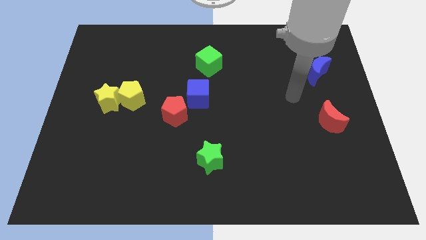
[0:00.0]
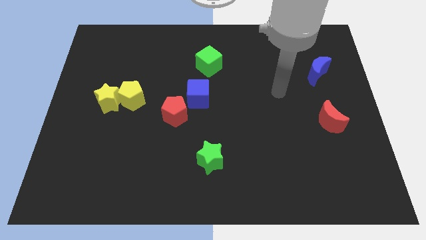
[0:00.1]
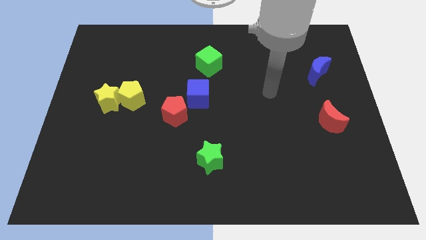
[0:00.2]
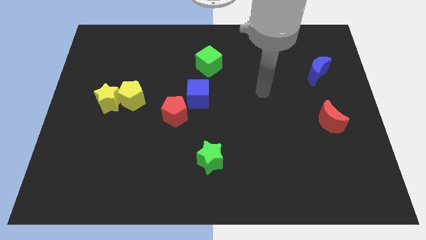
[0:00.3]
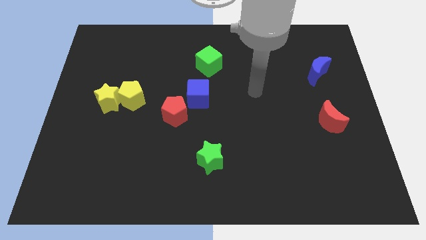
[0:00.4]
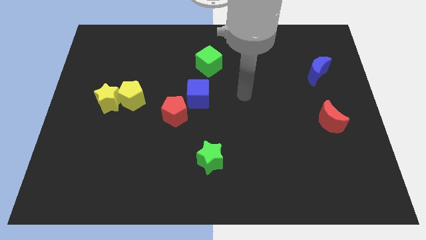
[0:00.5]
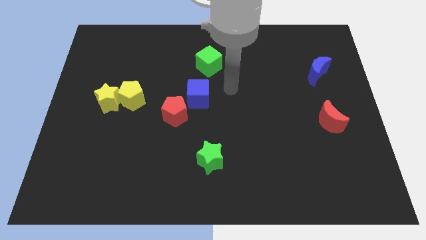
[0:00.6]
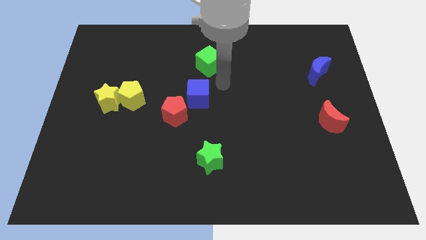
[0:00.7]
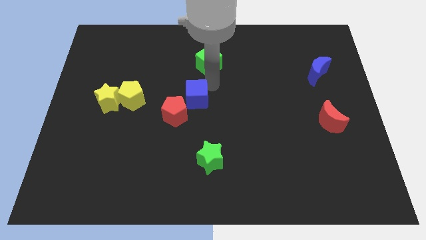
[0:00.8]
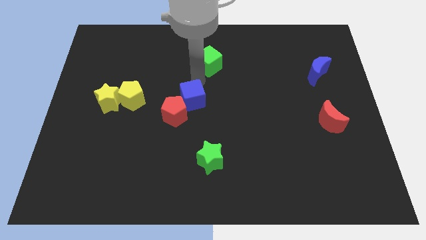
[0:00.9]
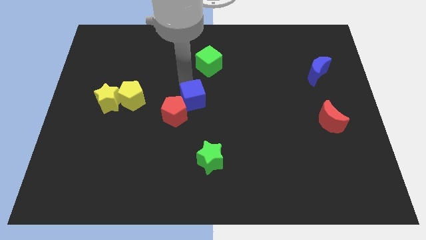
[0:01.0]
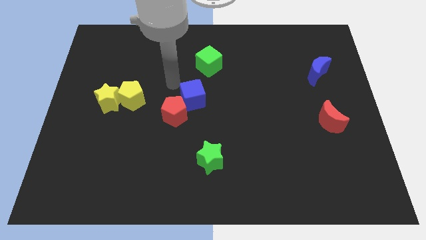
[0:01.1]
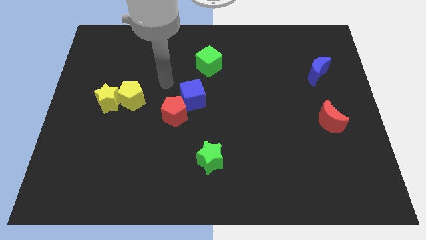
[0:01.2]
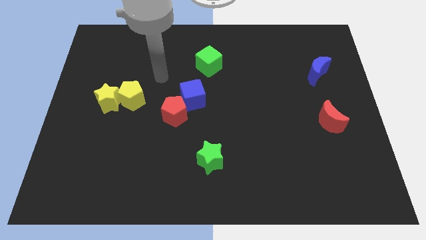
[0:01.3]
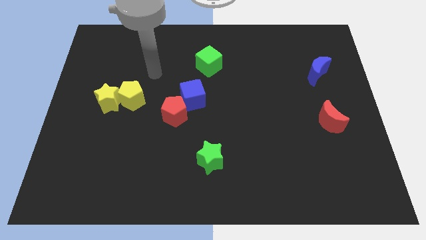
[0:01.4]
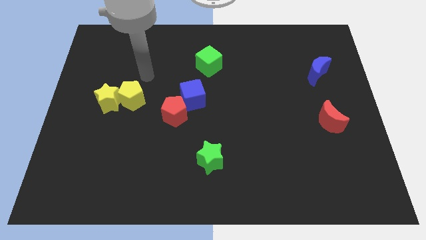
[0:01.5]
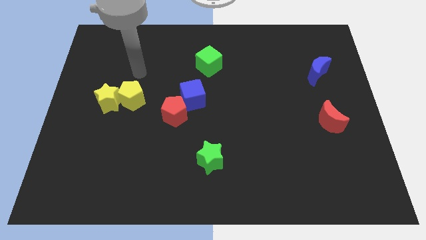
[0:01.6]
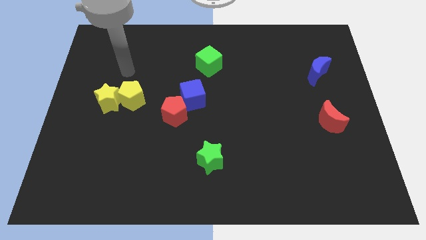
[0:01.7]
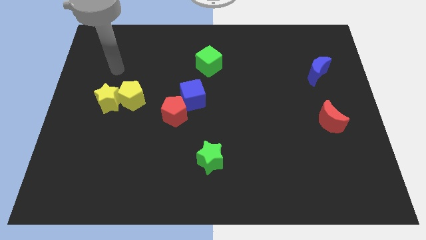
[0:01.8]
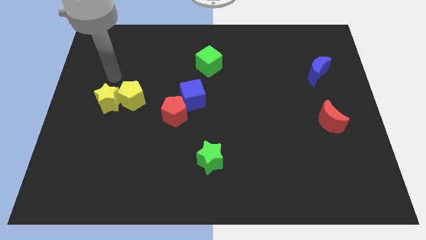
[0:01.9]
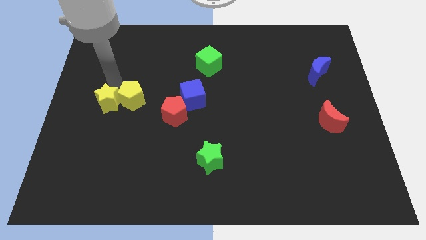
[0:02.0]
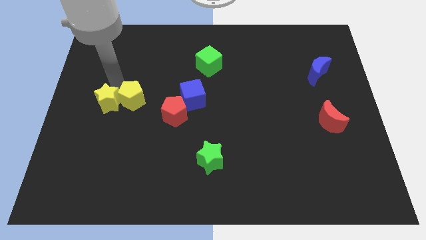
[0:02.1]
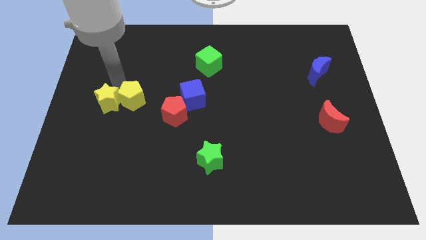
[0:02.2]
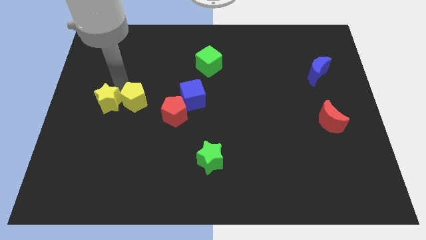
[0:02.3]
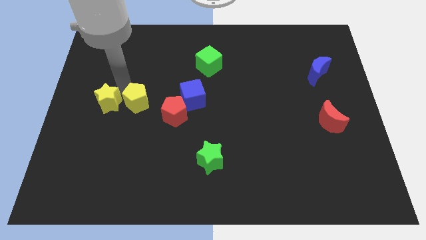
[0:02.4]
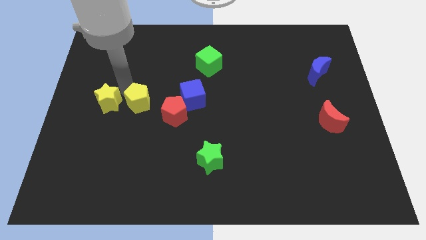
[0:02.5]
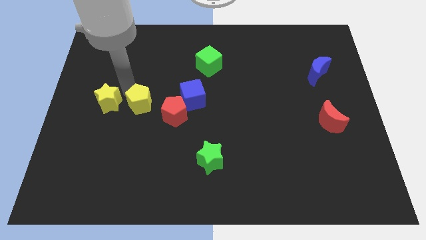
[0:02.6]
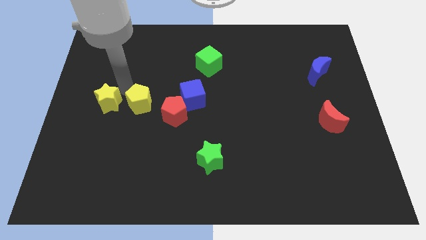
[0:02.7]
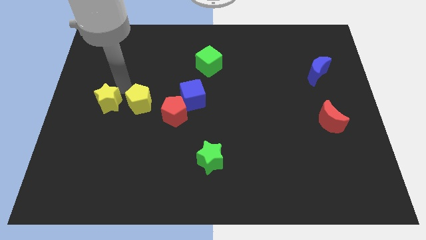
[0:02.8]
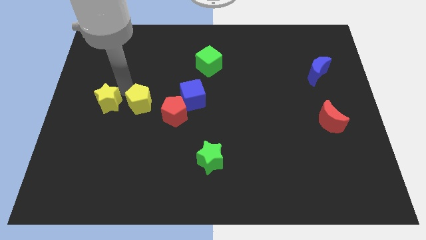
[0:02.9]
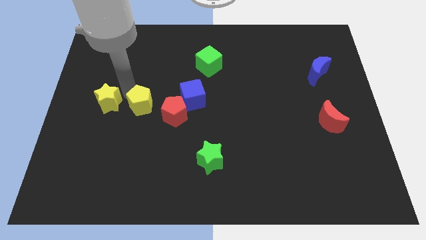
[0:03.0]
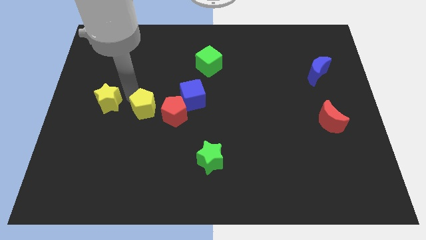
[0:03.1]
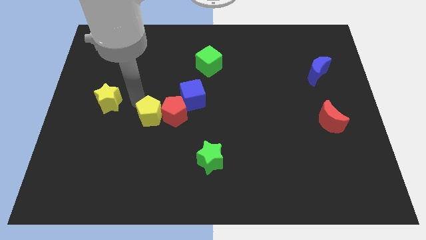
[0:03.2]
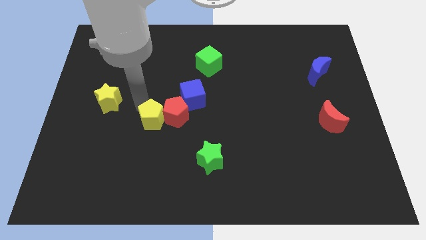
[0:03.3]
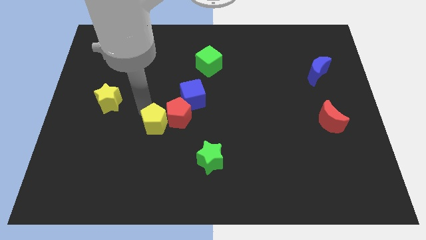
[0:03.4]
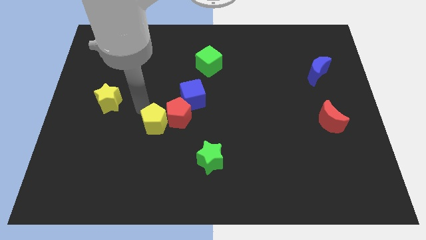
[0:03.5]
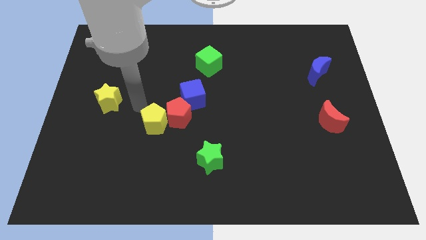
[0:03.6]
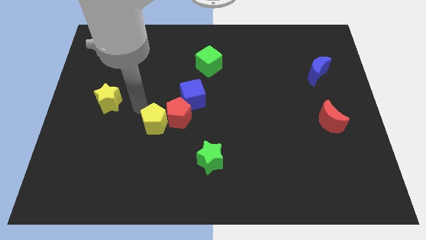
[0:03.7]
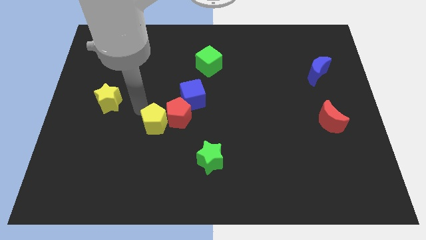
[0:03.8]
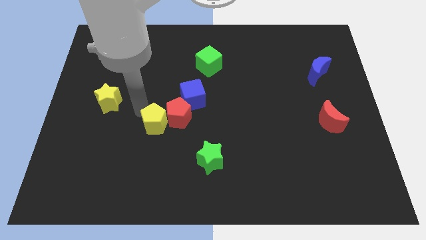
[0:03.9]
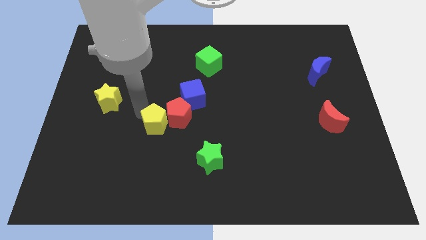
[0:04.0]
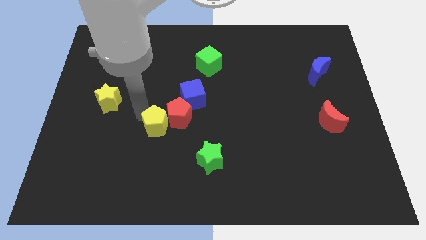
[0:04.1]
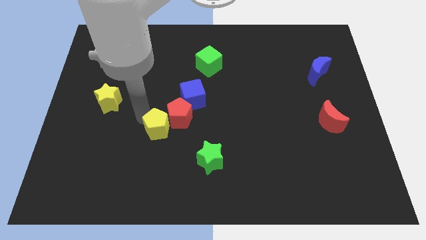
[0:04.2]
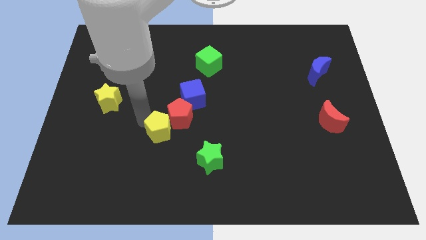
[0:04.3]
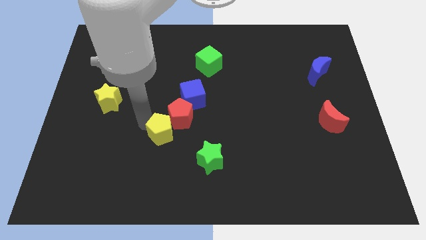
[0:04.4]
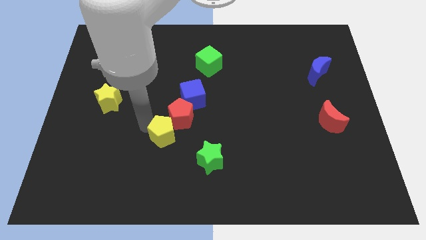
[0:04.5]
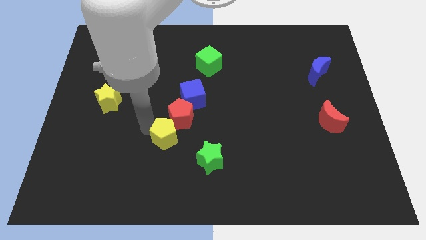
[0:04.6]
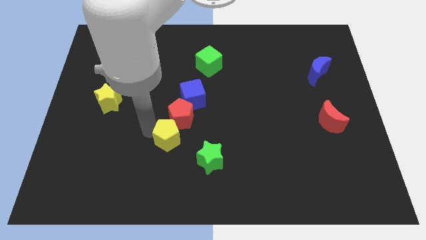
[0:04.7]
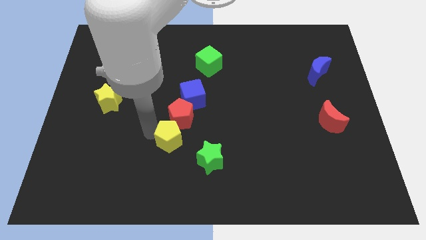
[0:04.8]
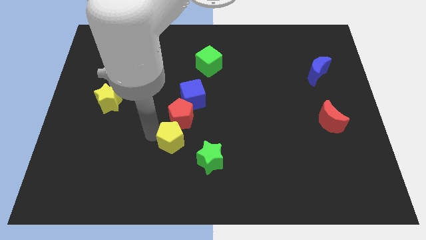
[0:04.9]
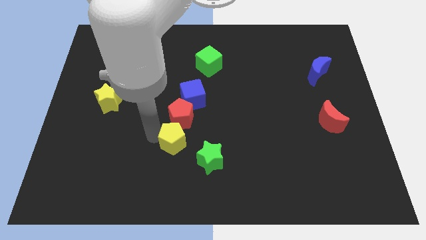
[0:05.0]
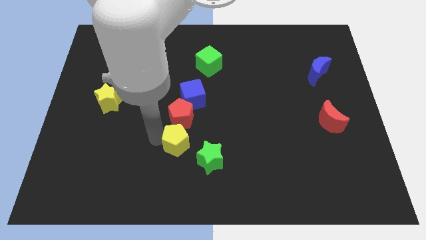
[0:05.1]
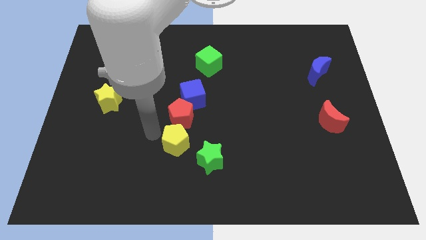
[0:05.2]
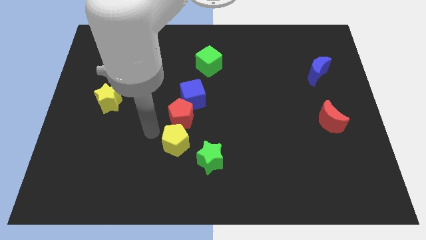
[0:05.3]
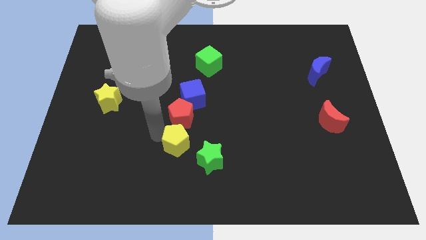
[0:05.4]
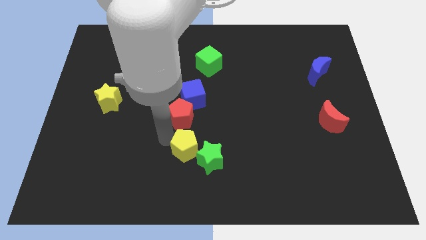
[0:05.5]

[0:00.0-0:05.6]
push the yellow pentagon towards the green star

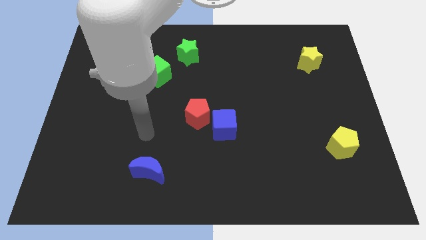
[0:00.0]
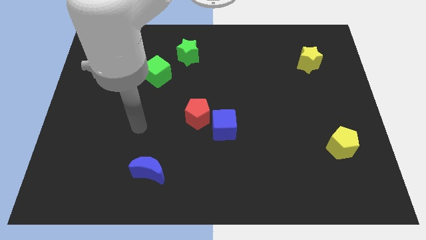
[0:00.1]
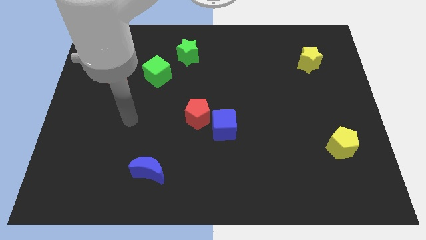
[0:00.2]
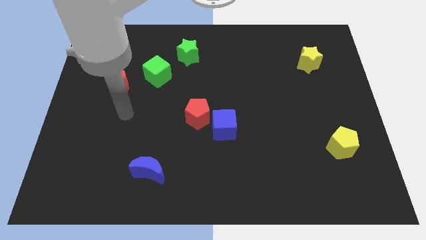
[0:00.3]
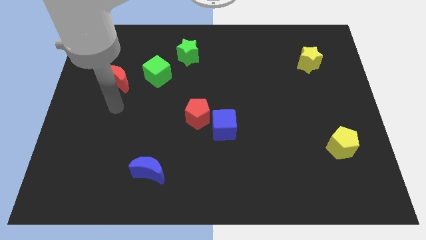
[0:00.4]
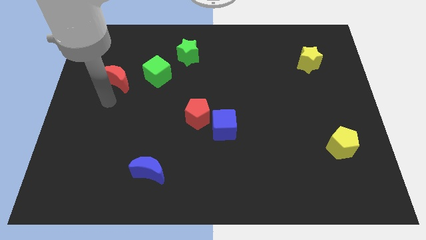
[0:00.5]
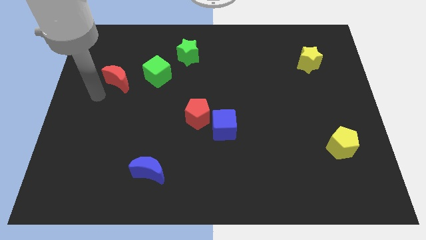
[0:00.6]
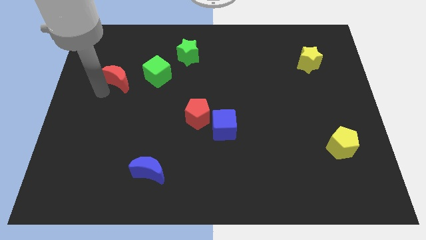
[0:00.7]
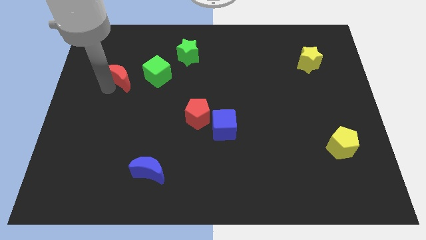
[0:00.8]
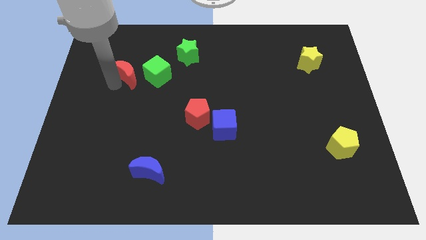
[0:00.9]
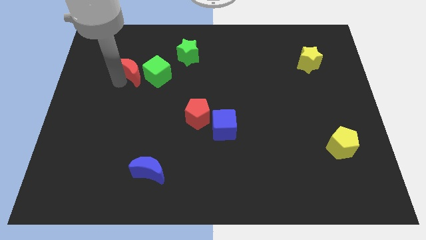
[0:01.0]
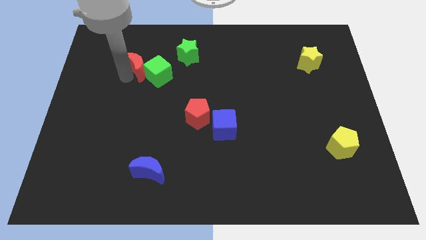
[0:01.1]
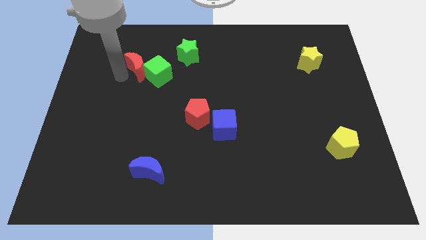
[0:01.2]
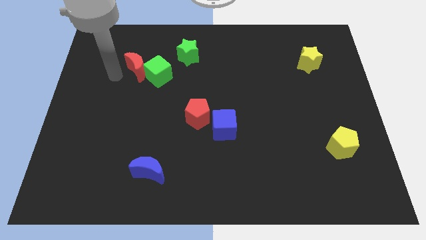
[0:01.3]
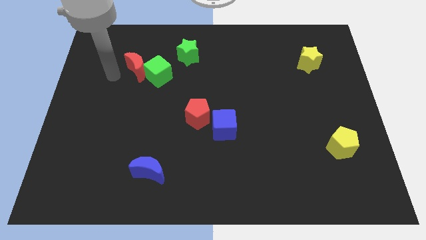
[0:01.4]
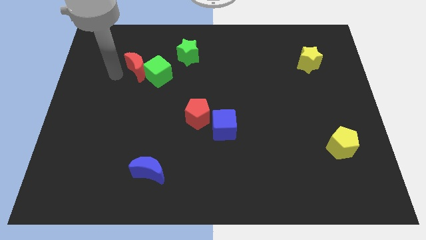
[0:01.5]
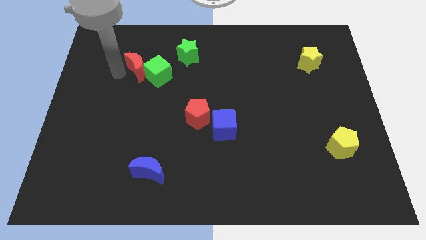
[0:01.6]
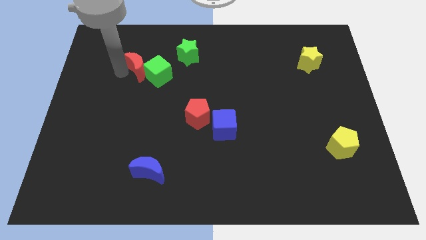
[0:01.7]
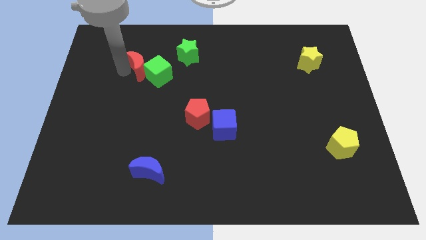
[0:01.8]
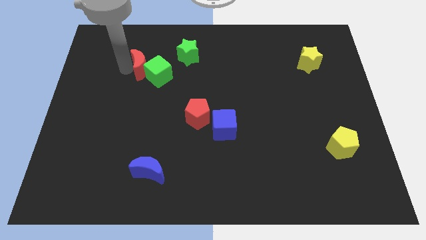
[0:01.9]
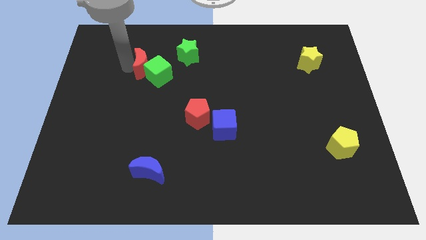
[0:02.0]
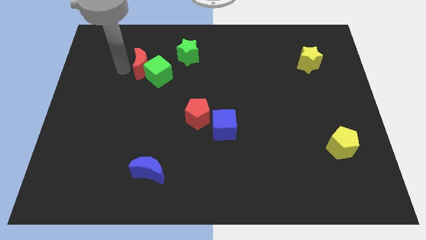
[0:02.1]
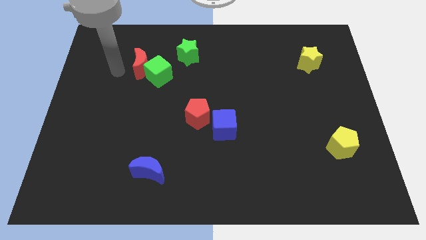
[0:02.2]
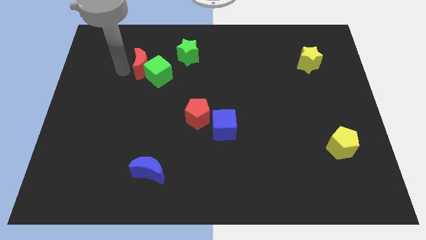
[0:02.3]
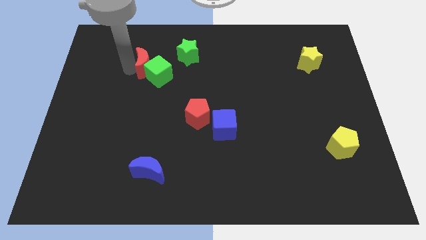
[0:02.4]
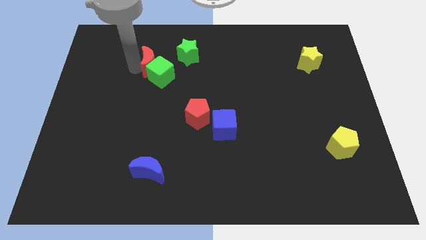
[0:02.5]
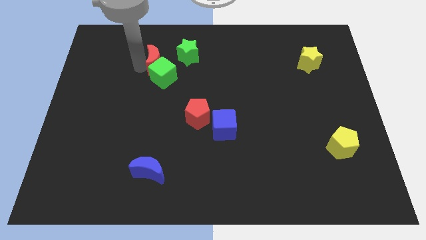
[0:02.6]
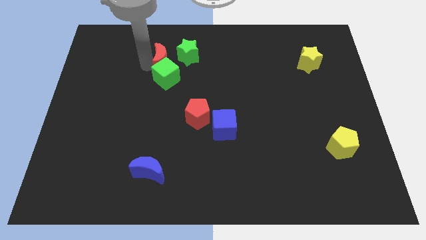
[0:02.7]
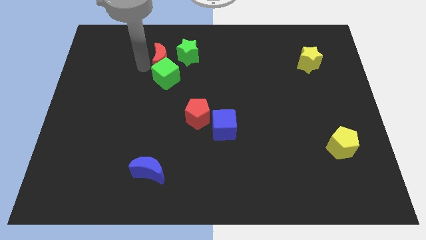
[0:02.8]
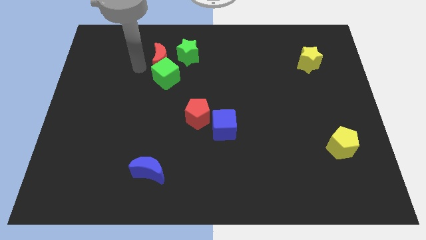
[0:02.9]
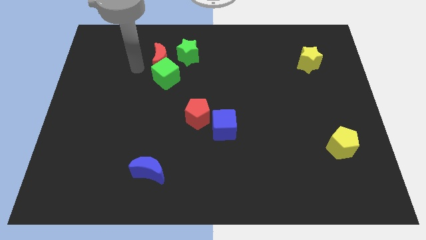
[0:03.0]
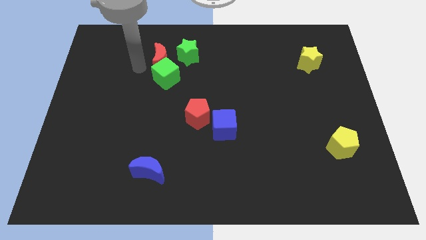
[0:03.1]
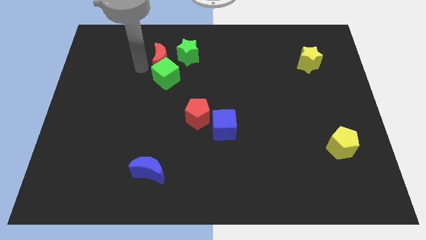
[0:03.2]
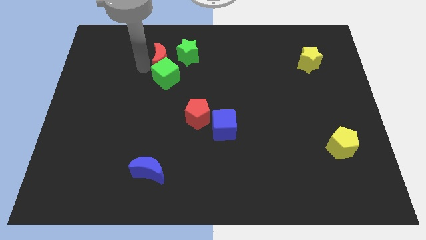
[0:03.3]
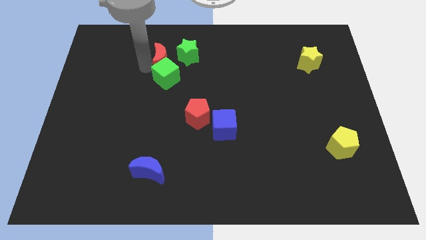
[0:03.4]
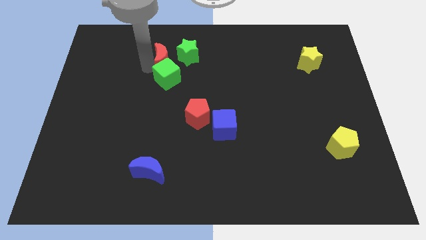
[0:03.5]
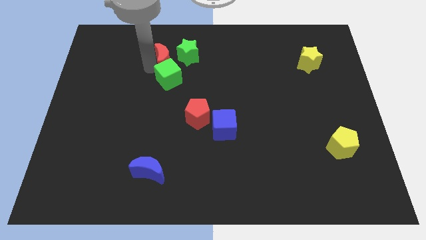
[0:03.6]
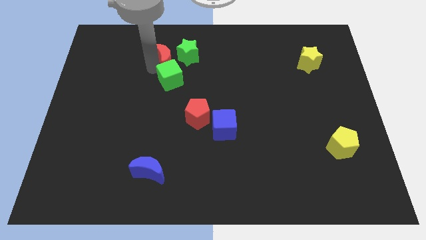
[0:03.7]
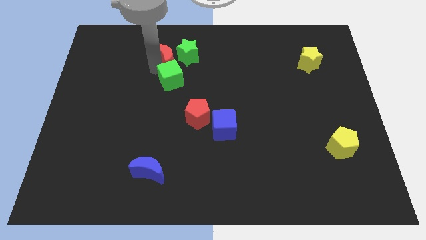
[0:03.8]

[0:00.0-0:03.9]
slide the red moon next to the green star
